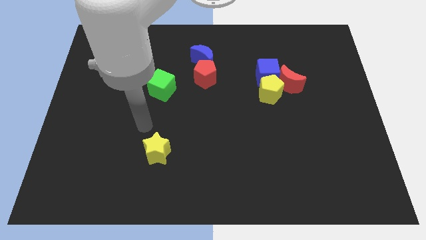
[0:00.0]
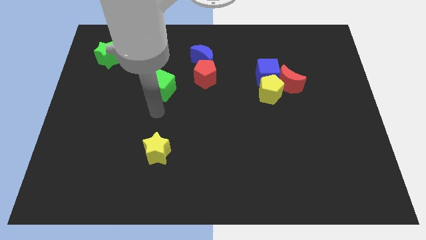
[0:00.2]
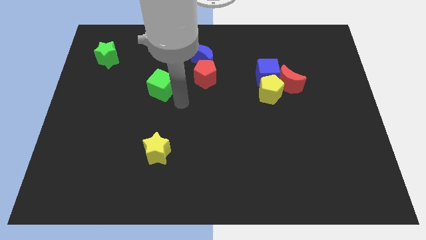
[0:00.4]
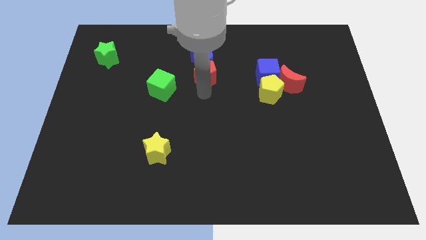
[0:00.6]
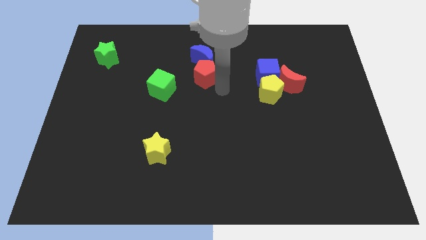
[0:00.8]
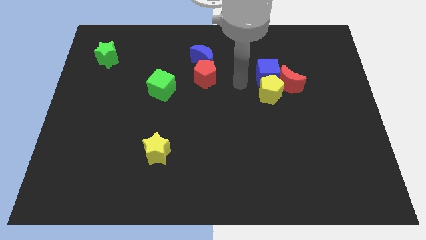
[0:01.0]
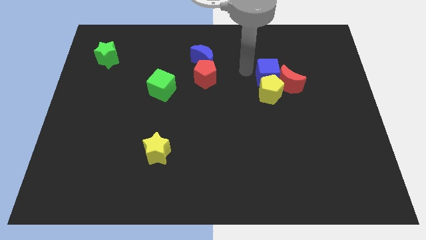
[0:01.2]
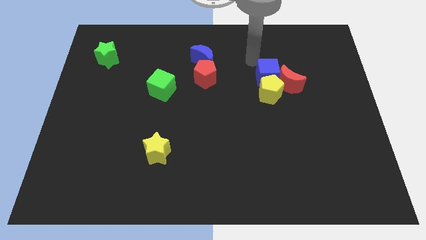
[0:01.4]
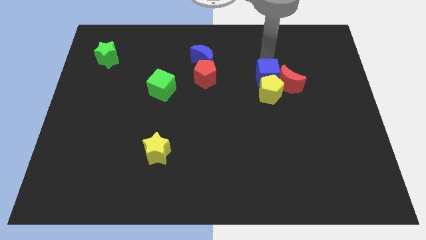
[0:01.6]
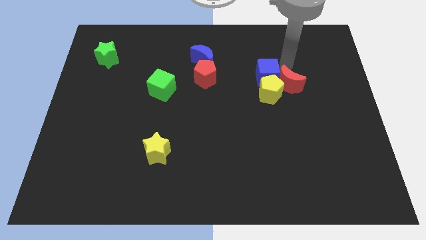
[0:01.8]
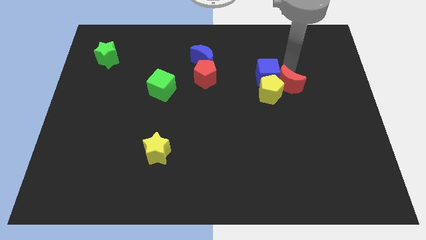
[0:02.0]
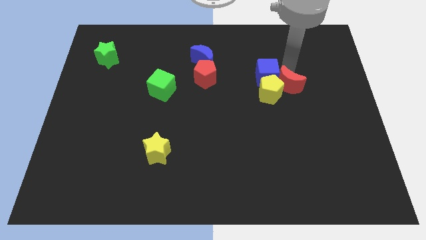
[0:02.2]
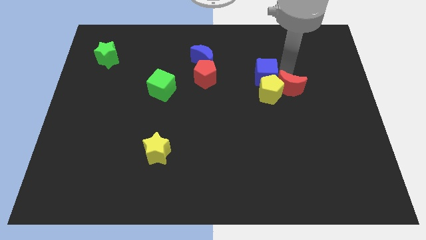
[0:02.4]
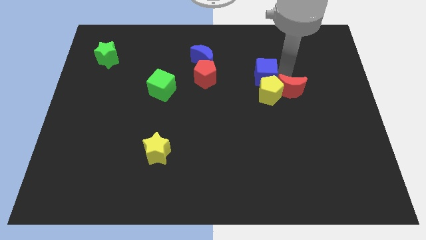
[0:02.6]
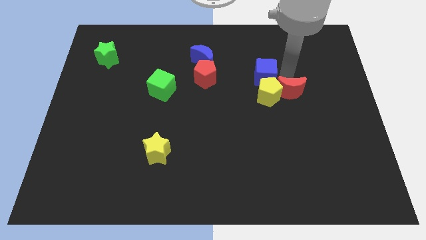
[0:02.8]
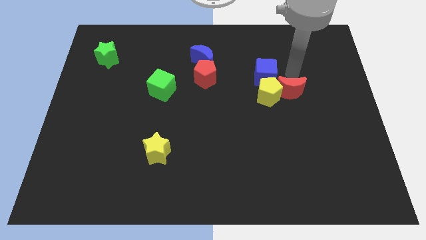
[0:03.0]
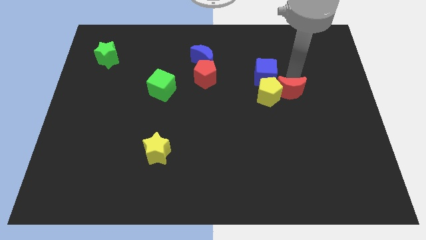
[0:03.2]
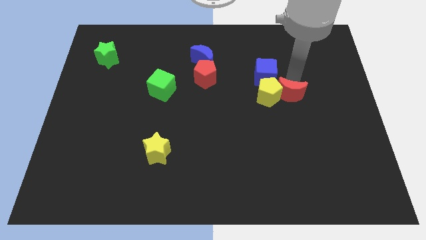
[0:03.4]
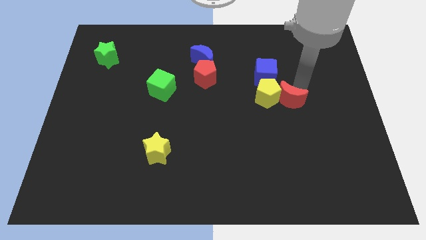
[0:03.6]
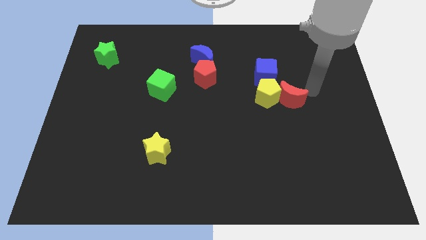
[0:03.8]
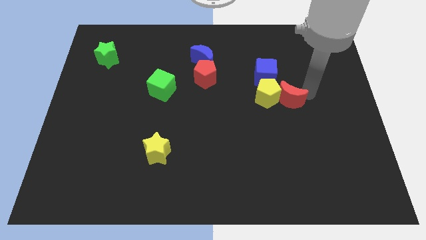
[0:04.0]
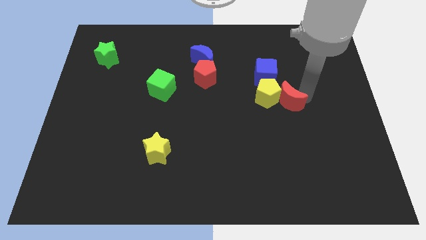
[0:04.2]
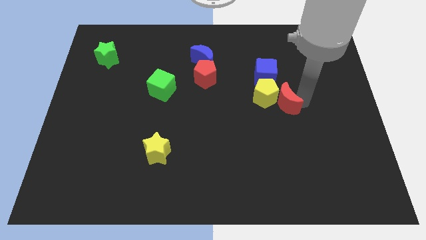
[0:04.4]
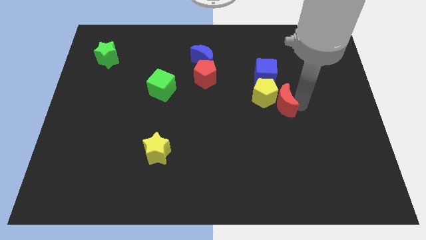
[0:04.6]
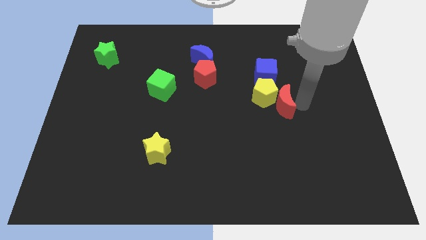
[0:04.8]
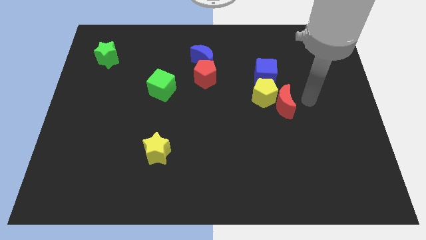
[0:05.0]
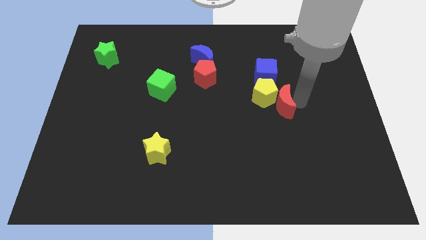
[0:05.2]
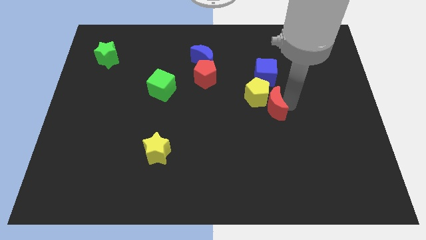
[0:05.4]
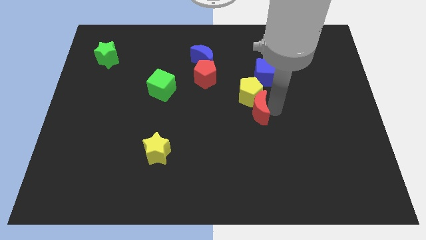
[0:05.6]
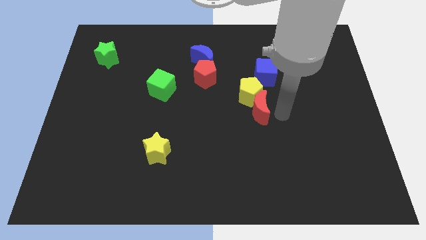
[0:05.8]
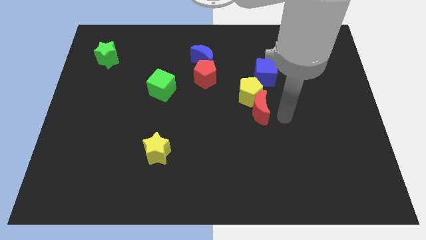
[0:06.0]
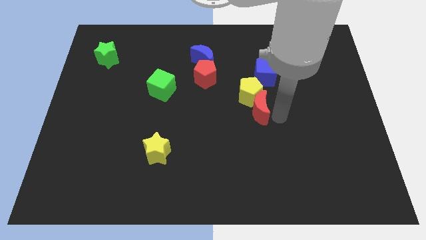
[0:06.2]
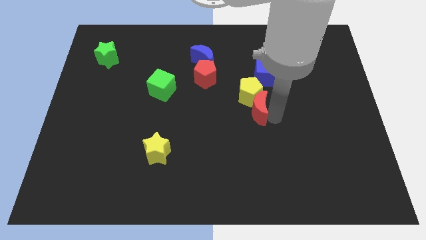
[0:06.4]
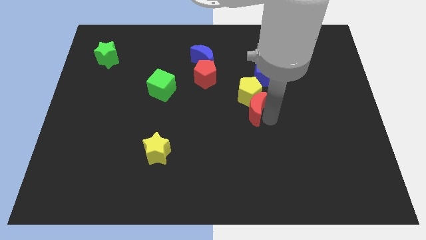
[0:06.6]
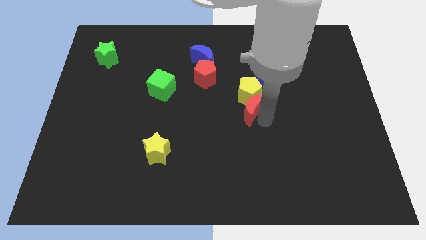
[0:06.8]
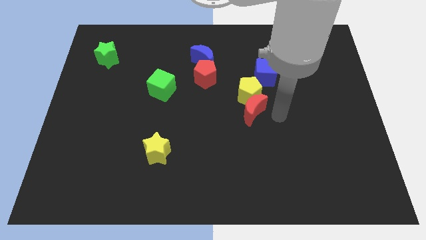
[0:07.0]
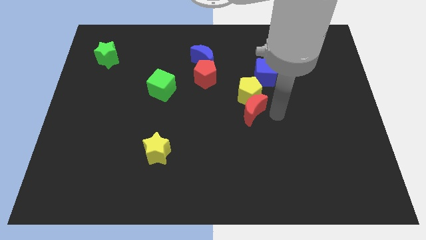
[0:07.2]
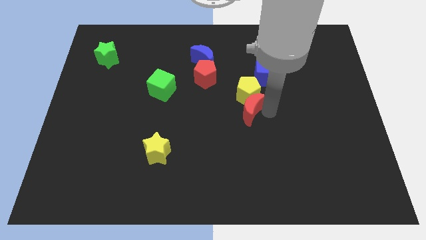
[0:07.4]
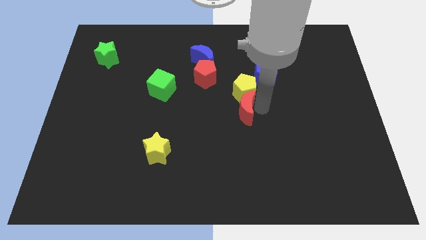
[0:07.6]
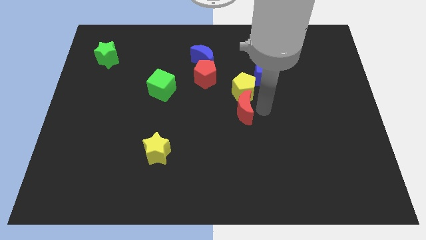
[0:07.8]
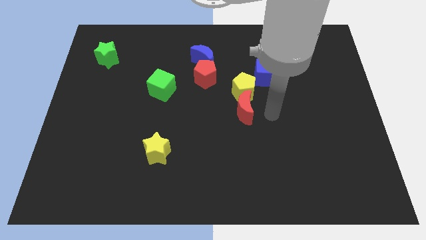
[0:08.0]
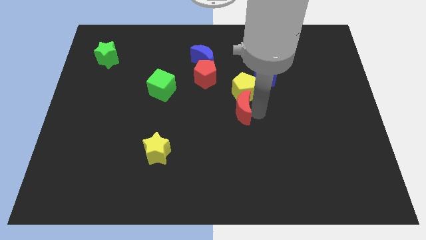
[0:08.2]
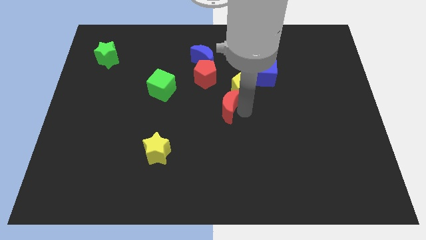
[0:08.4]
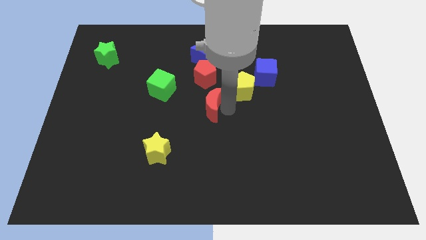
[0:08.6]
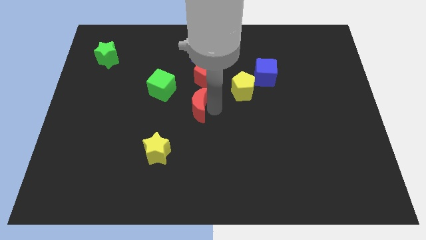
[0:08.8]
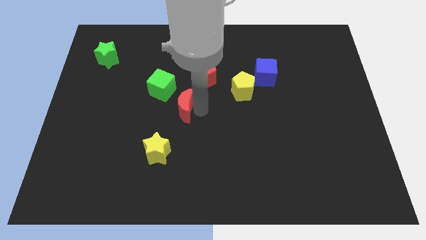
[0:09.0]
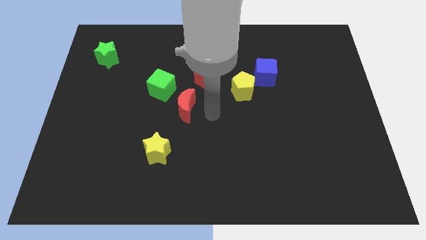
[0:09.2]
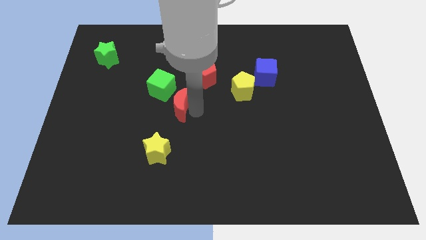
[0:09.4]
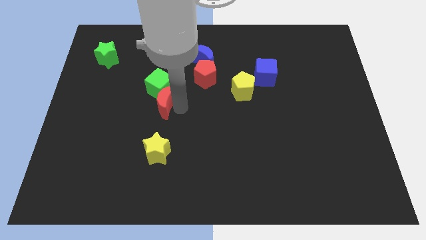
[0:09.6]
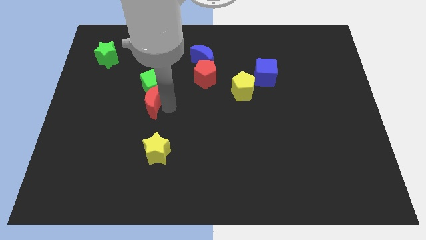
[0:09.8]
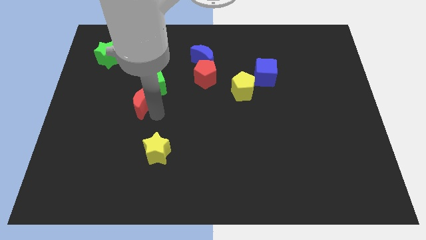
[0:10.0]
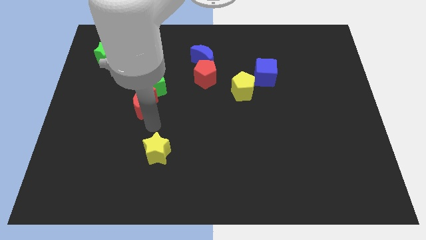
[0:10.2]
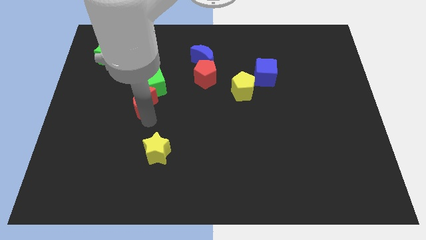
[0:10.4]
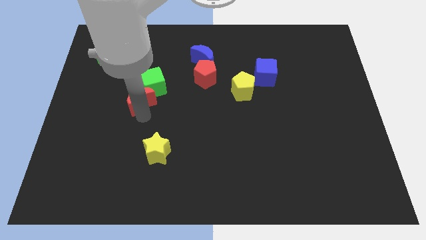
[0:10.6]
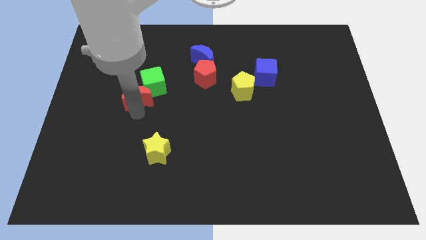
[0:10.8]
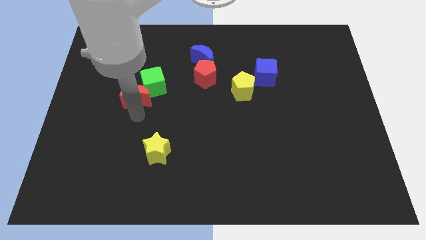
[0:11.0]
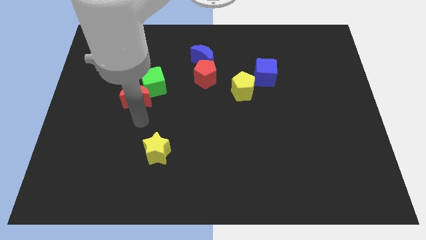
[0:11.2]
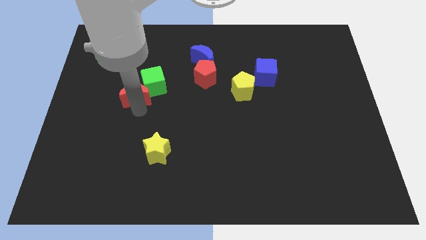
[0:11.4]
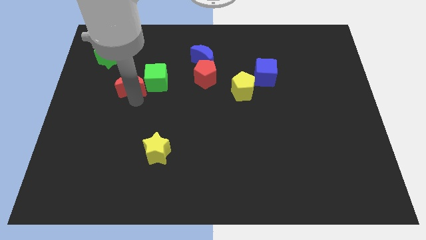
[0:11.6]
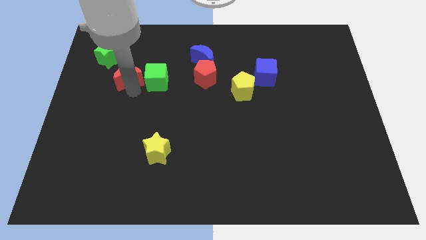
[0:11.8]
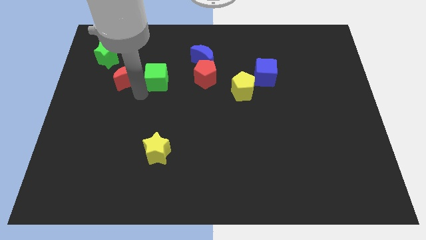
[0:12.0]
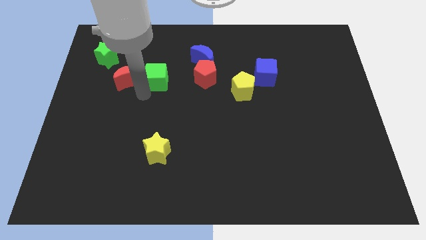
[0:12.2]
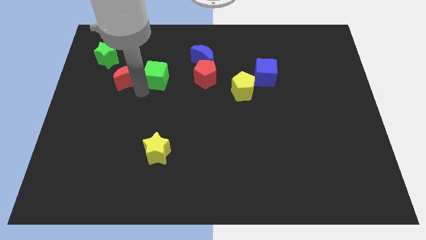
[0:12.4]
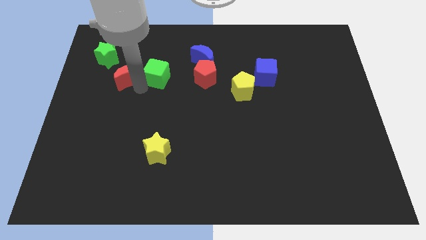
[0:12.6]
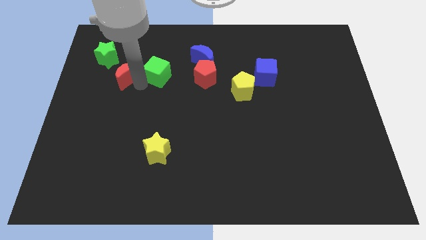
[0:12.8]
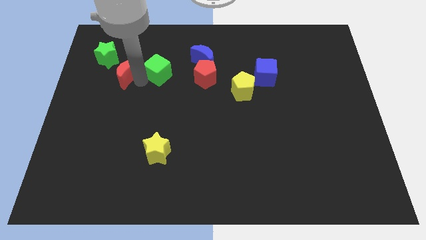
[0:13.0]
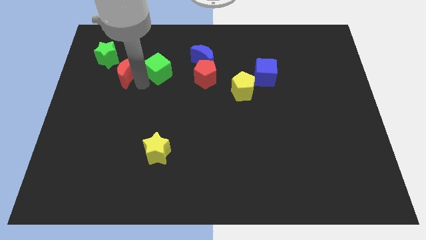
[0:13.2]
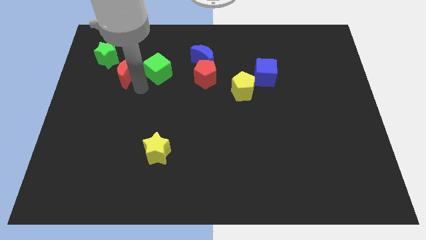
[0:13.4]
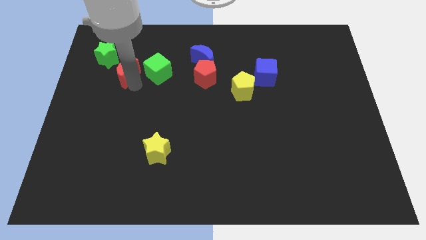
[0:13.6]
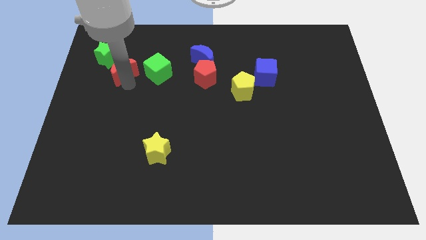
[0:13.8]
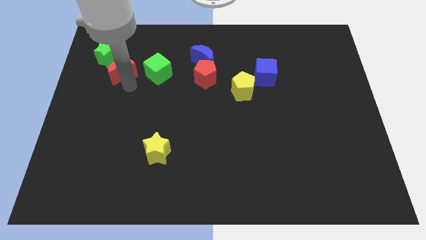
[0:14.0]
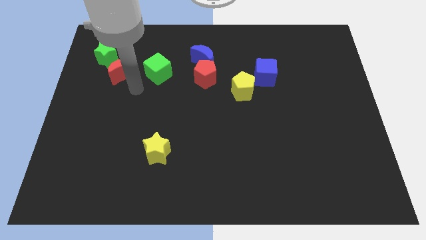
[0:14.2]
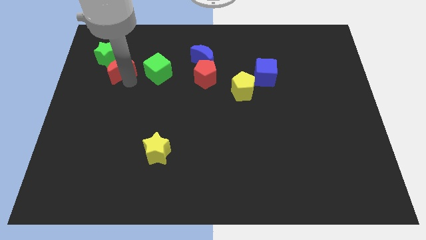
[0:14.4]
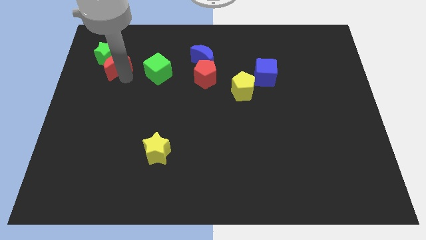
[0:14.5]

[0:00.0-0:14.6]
move the red moon towards the green star
